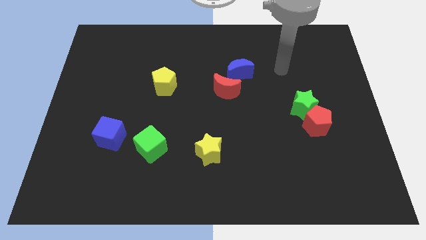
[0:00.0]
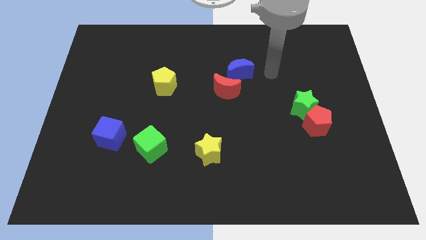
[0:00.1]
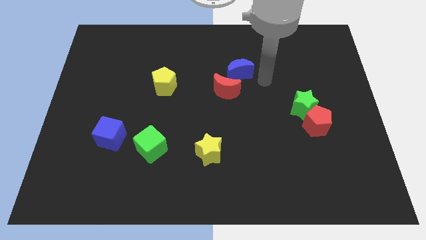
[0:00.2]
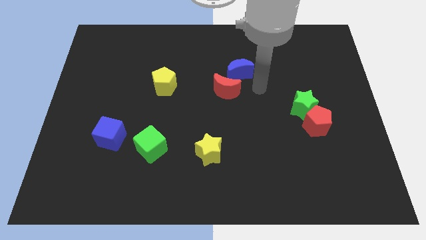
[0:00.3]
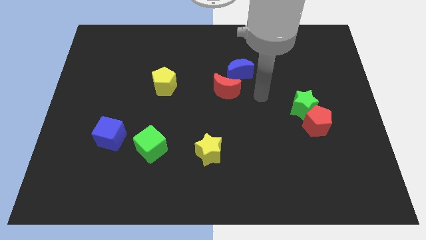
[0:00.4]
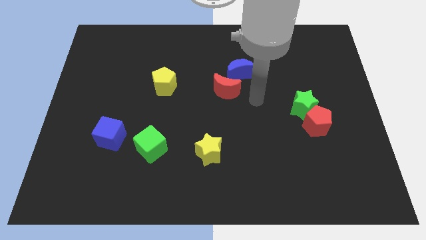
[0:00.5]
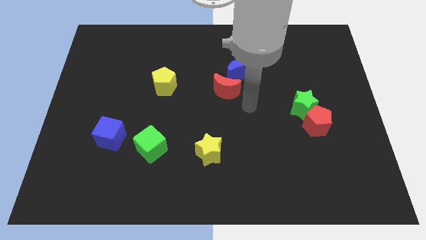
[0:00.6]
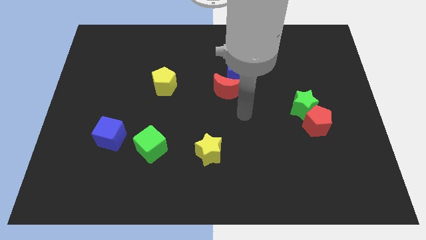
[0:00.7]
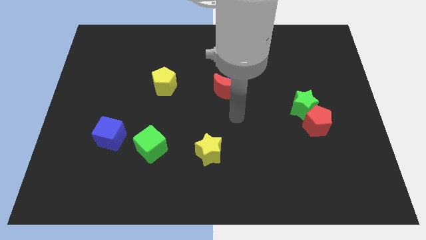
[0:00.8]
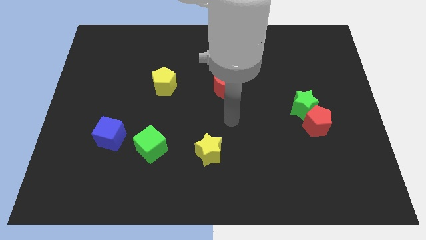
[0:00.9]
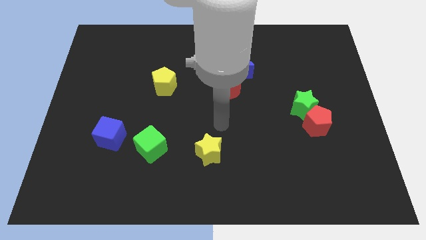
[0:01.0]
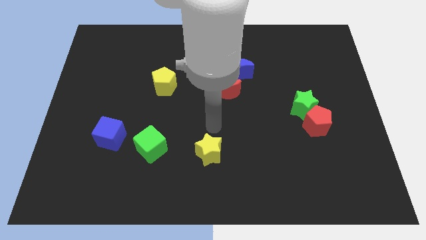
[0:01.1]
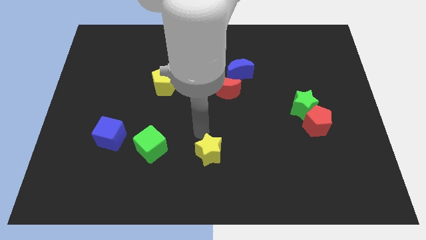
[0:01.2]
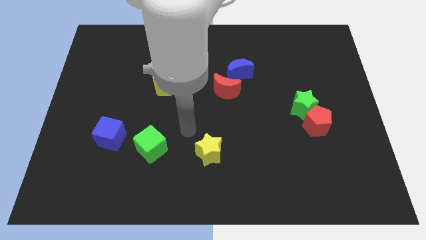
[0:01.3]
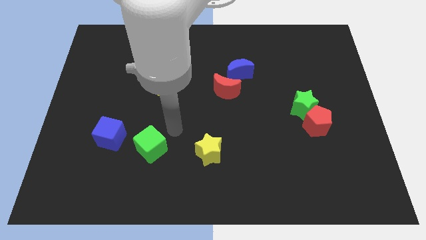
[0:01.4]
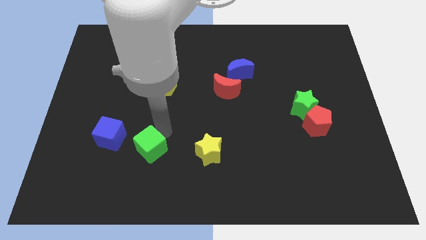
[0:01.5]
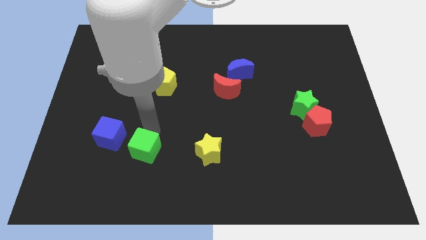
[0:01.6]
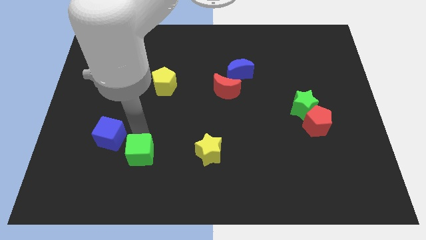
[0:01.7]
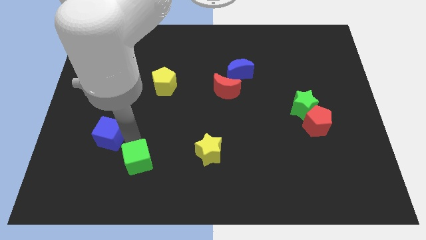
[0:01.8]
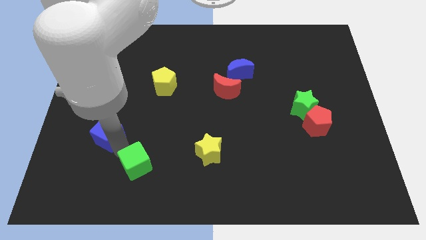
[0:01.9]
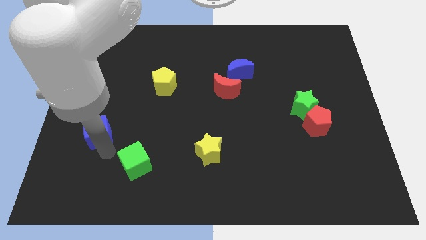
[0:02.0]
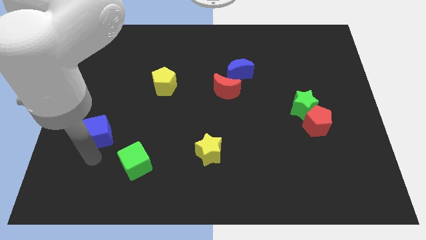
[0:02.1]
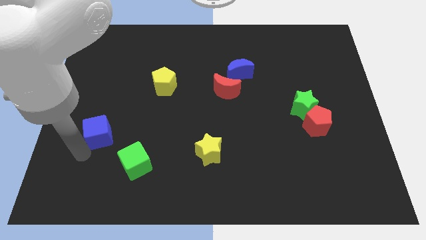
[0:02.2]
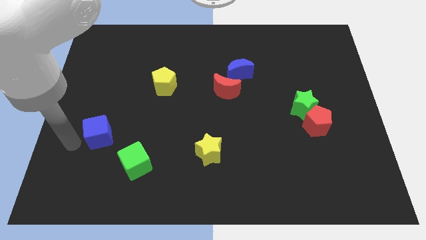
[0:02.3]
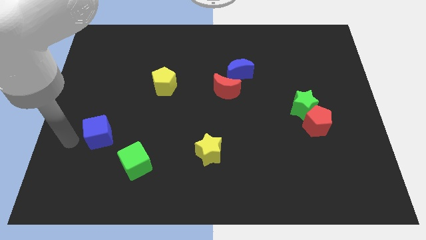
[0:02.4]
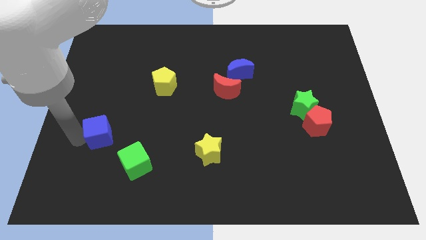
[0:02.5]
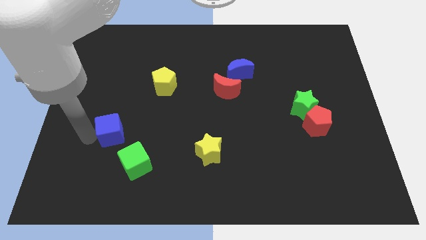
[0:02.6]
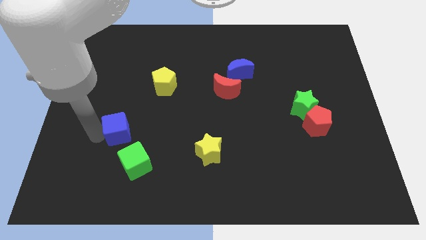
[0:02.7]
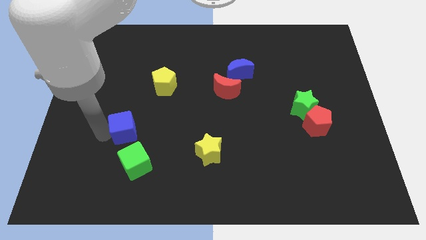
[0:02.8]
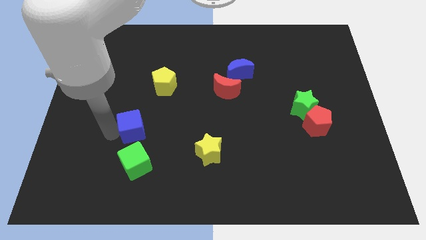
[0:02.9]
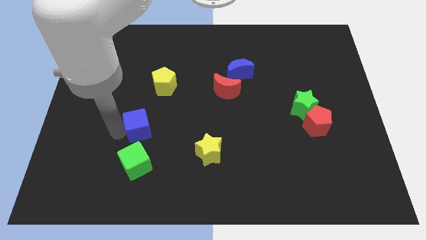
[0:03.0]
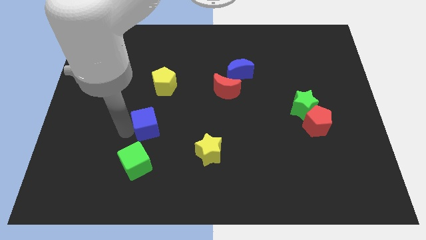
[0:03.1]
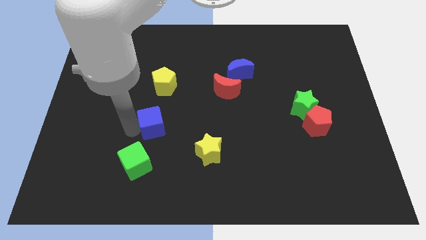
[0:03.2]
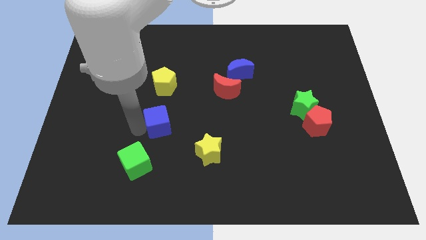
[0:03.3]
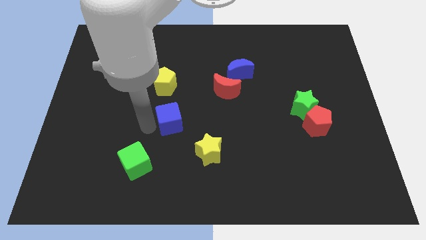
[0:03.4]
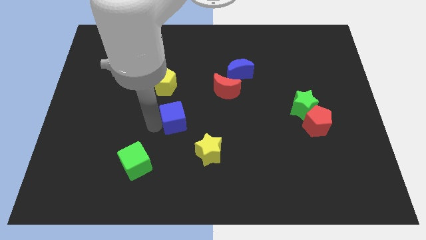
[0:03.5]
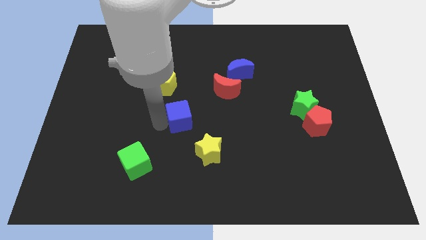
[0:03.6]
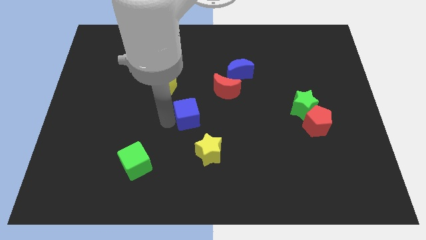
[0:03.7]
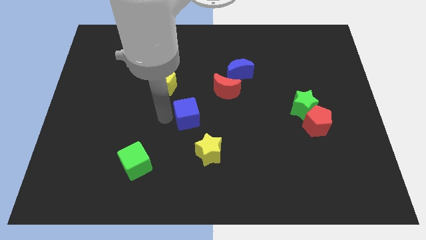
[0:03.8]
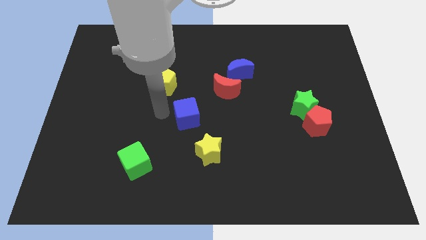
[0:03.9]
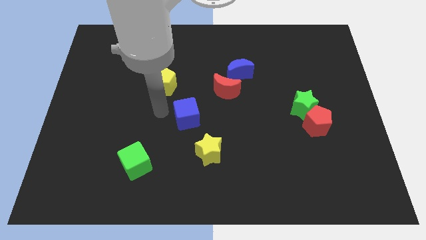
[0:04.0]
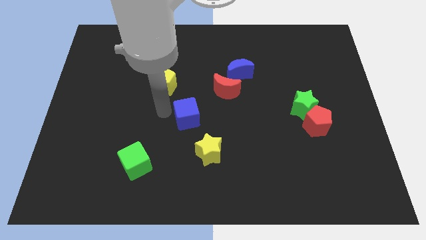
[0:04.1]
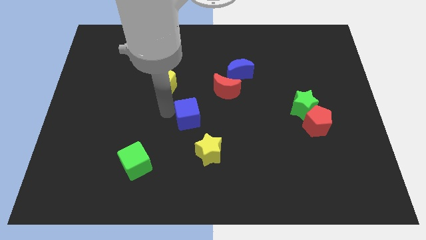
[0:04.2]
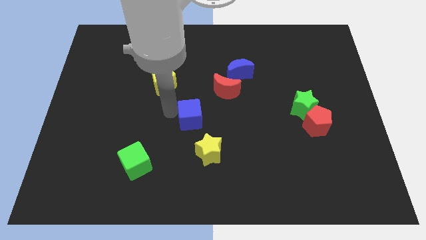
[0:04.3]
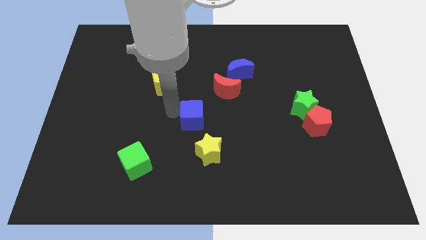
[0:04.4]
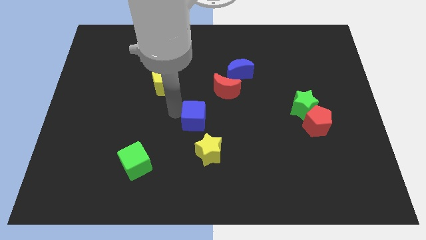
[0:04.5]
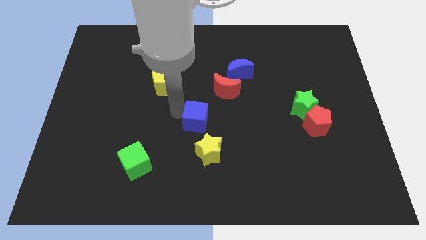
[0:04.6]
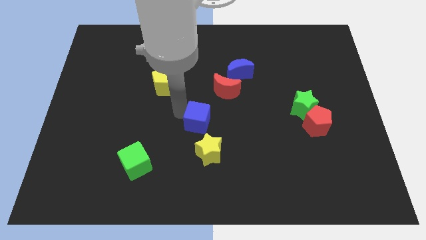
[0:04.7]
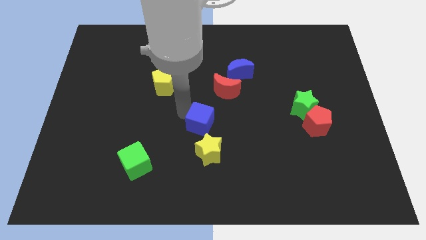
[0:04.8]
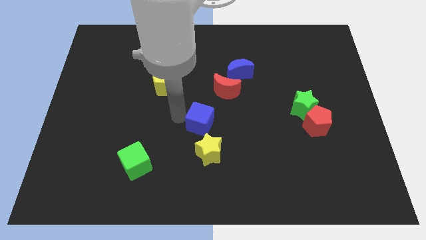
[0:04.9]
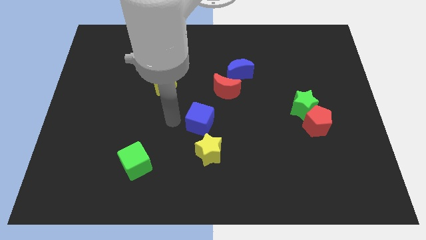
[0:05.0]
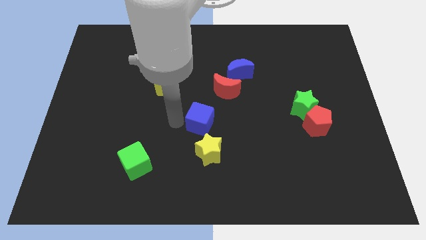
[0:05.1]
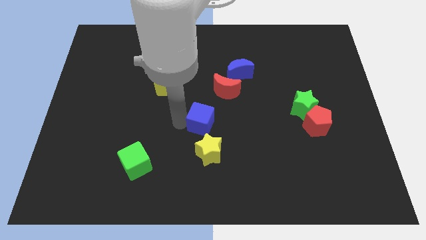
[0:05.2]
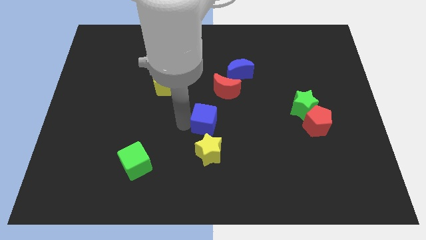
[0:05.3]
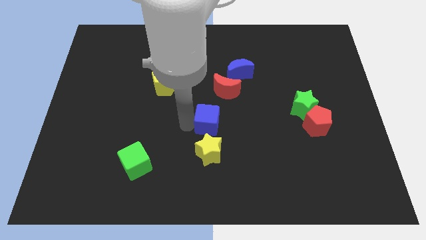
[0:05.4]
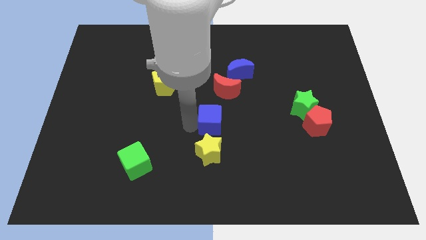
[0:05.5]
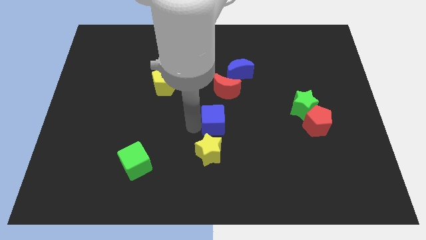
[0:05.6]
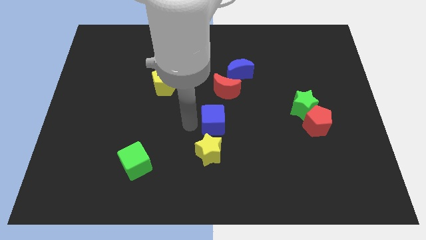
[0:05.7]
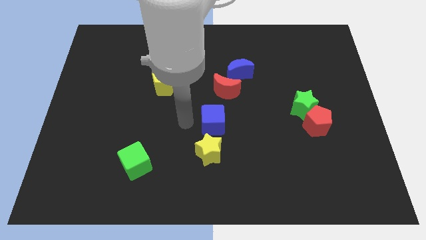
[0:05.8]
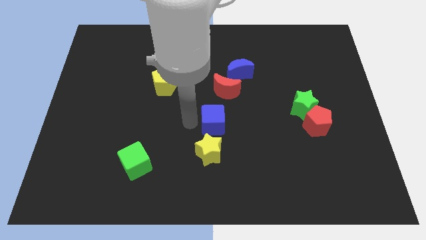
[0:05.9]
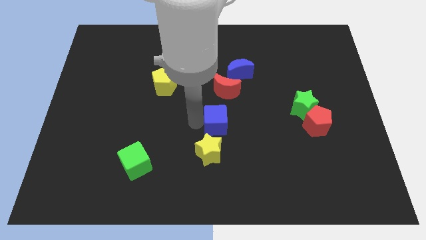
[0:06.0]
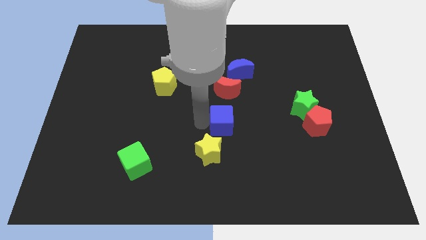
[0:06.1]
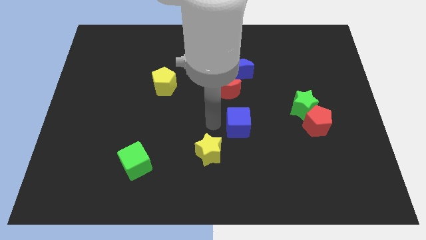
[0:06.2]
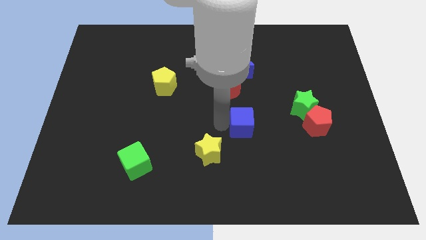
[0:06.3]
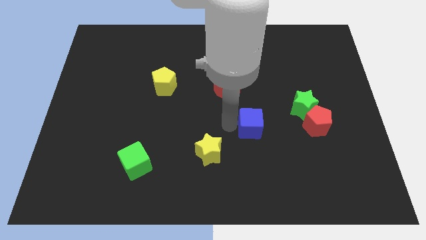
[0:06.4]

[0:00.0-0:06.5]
put the blue cube to the left of the red pentagon
